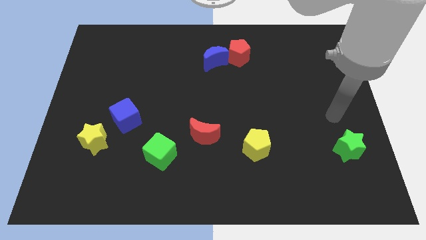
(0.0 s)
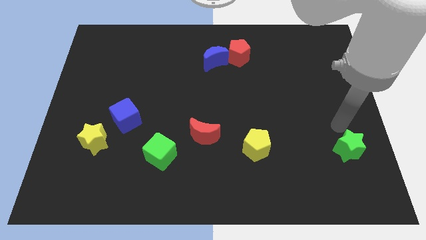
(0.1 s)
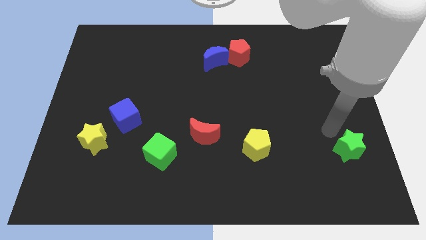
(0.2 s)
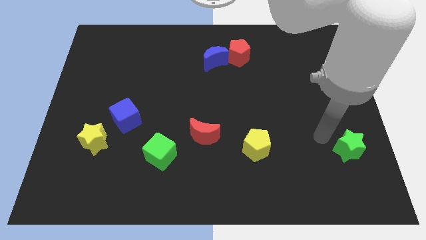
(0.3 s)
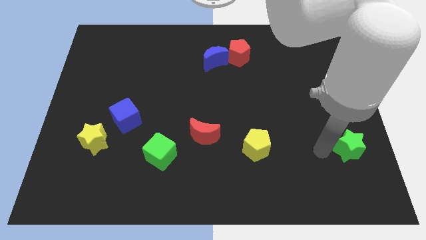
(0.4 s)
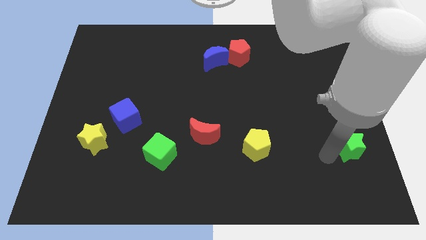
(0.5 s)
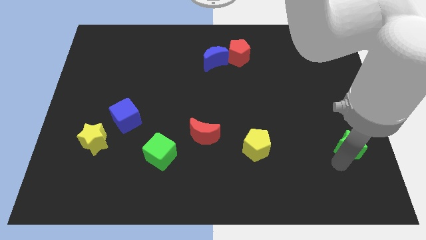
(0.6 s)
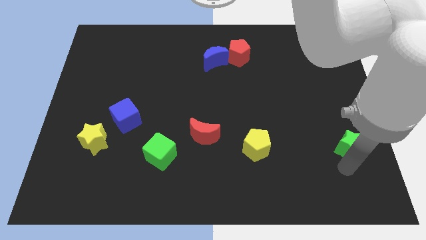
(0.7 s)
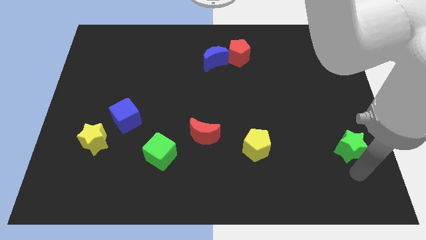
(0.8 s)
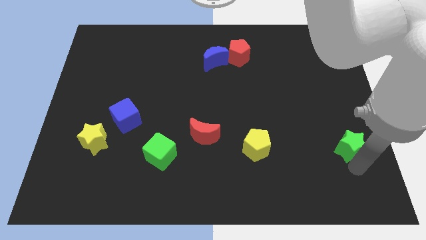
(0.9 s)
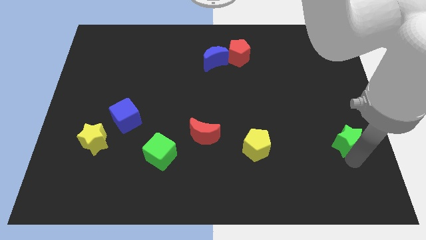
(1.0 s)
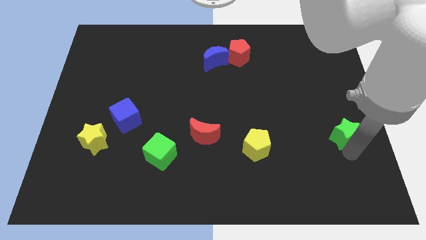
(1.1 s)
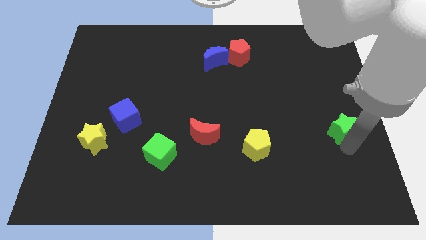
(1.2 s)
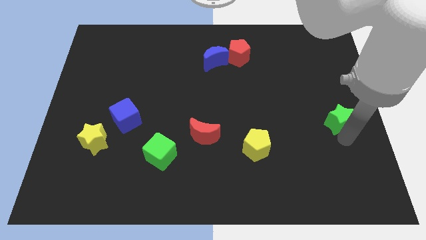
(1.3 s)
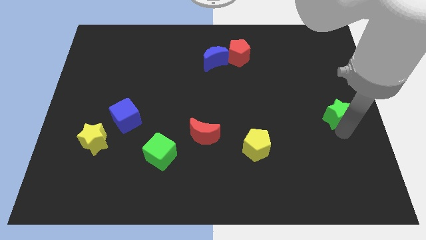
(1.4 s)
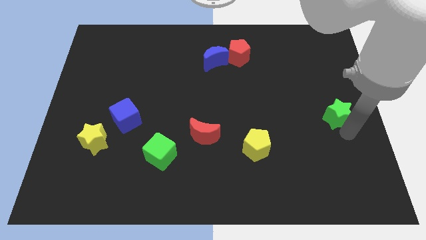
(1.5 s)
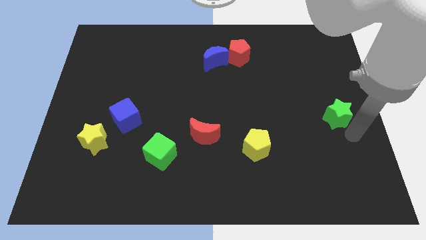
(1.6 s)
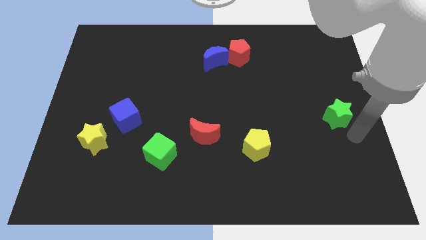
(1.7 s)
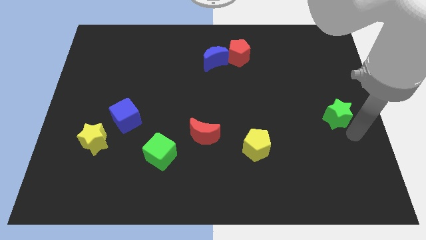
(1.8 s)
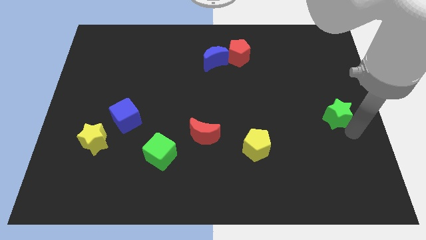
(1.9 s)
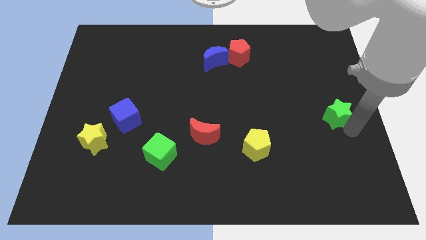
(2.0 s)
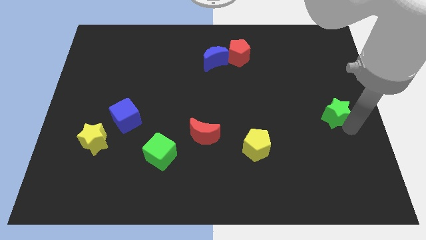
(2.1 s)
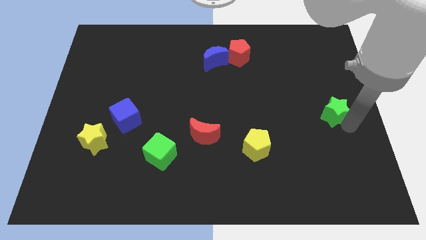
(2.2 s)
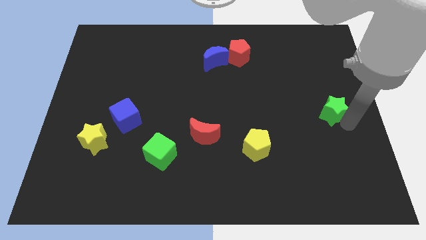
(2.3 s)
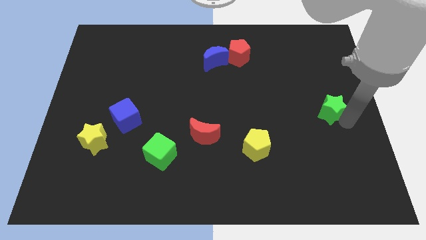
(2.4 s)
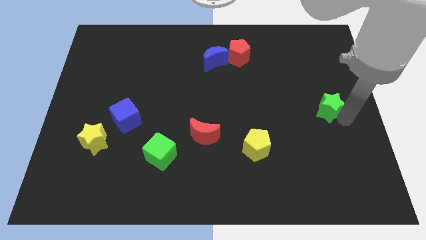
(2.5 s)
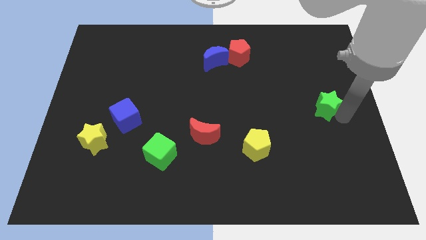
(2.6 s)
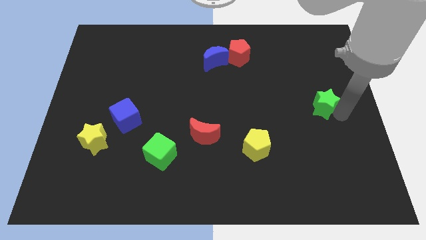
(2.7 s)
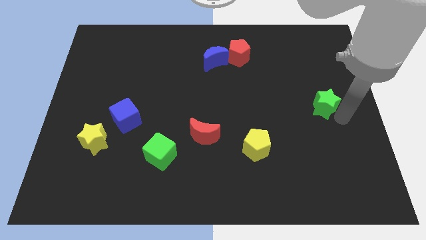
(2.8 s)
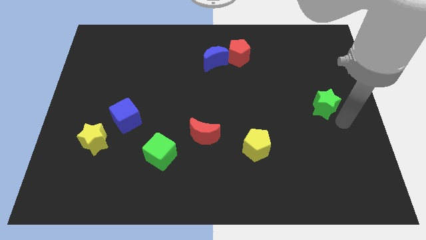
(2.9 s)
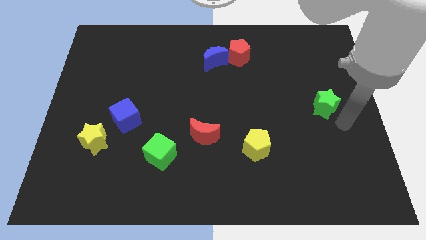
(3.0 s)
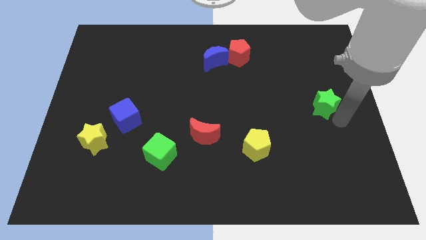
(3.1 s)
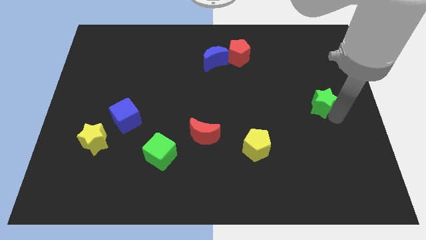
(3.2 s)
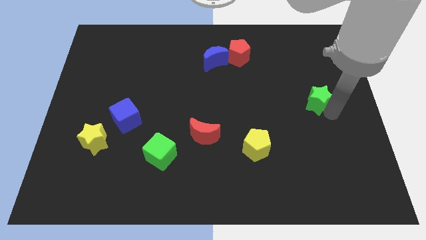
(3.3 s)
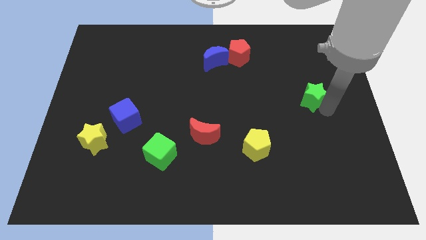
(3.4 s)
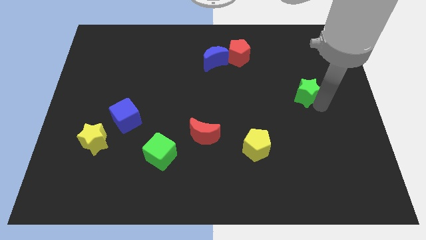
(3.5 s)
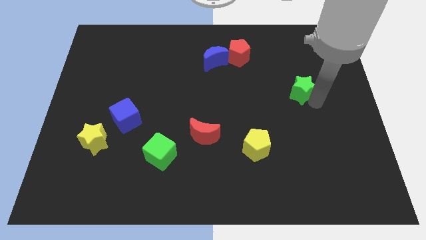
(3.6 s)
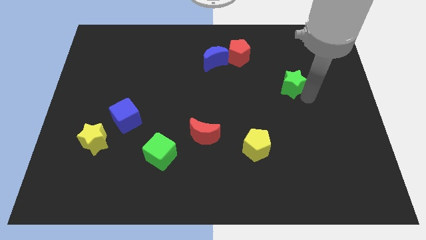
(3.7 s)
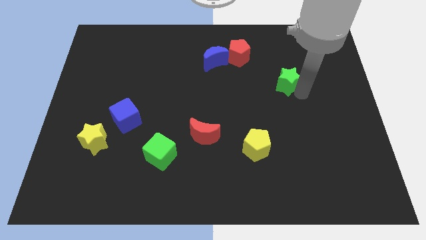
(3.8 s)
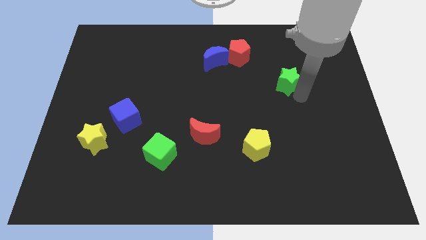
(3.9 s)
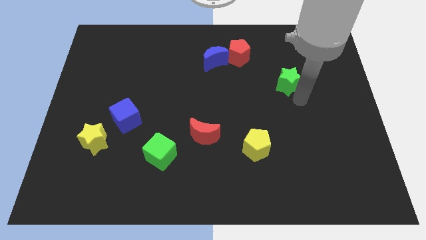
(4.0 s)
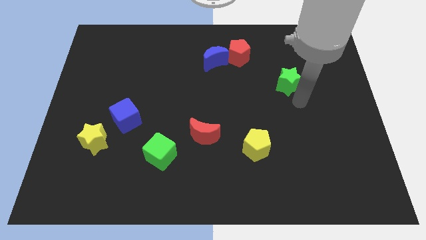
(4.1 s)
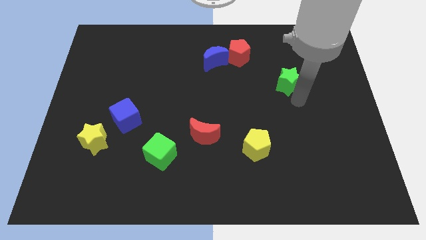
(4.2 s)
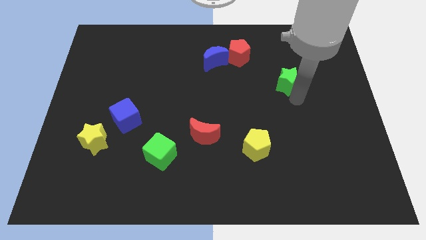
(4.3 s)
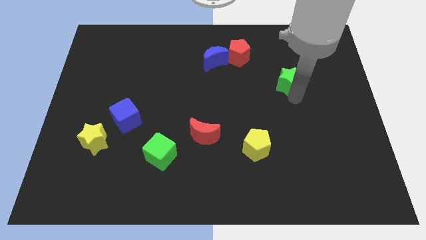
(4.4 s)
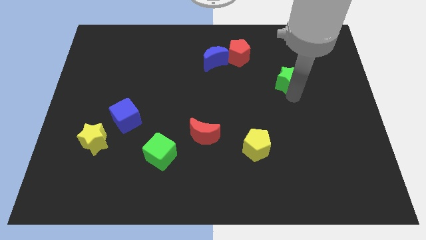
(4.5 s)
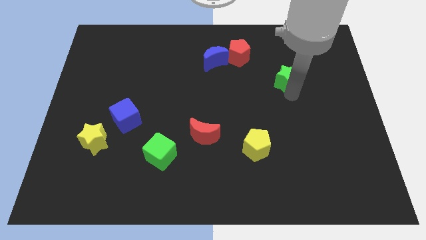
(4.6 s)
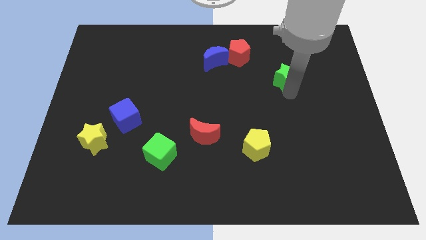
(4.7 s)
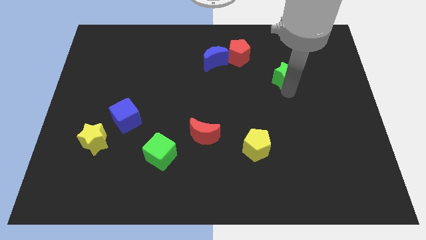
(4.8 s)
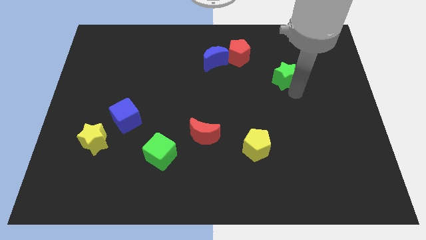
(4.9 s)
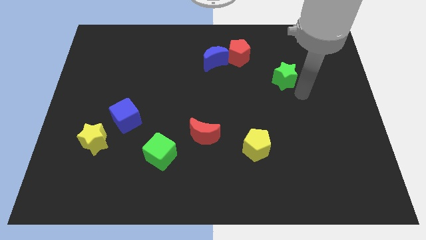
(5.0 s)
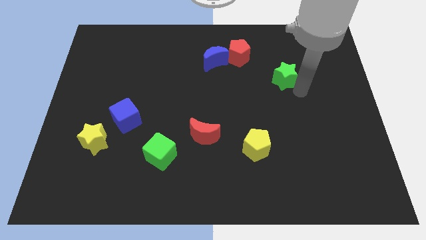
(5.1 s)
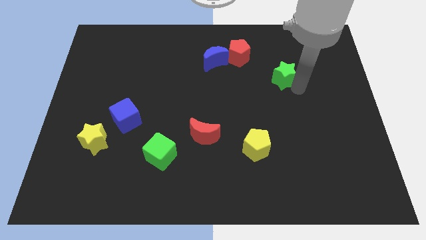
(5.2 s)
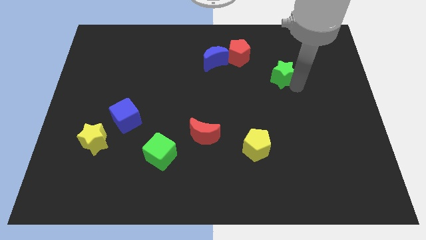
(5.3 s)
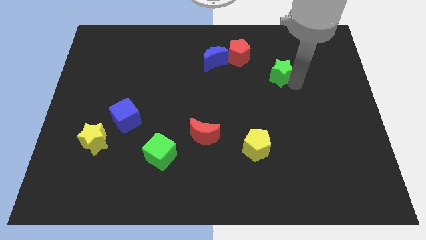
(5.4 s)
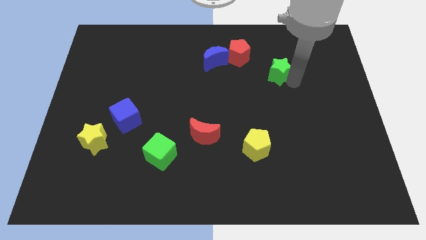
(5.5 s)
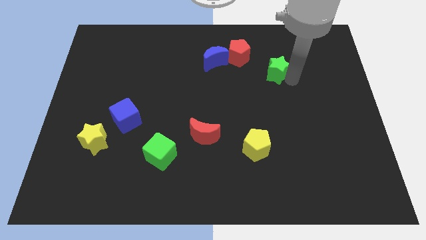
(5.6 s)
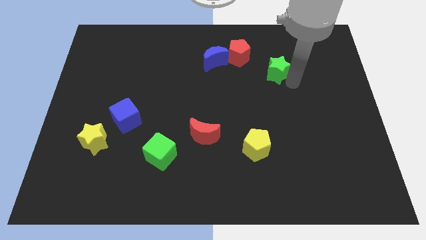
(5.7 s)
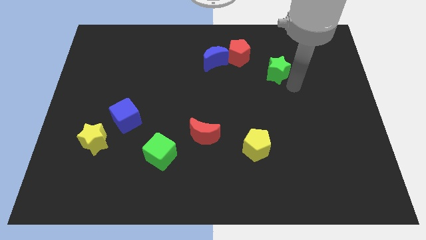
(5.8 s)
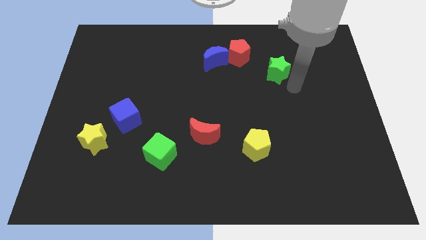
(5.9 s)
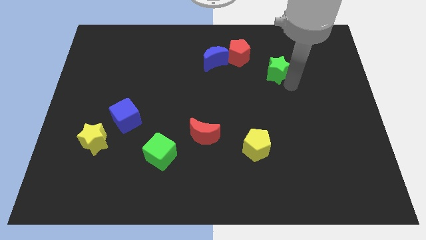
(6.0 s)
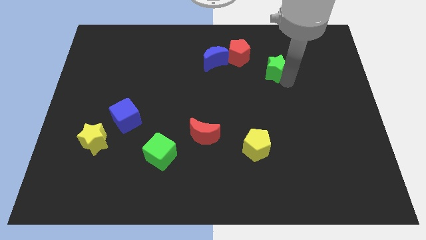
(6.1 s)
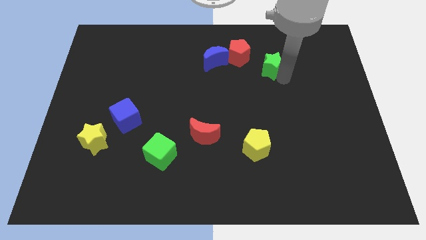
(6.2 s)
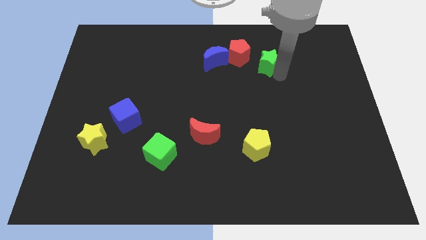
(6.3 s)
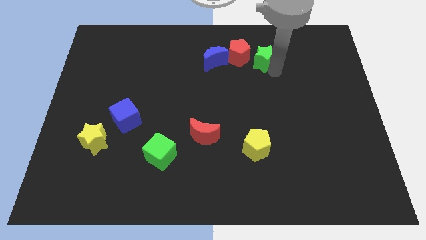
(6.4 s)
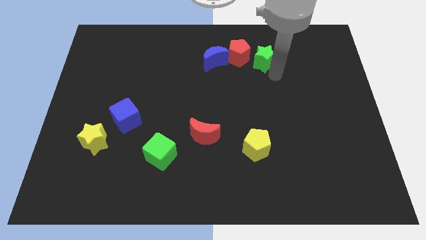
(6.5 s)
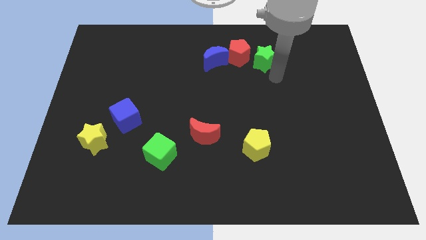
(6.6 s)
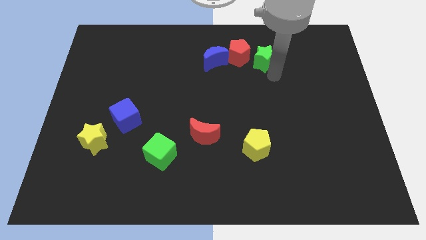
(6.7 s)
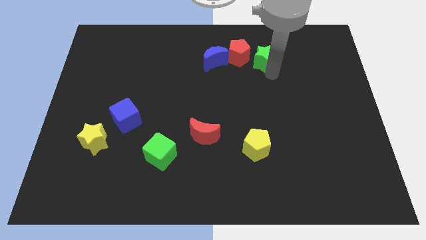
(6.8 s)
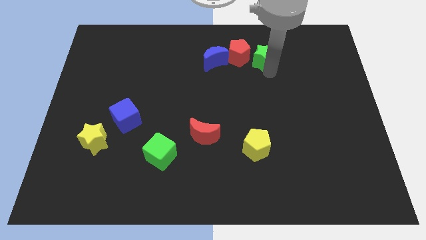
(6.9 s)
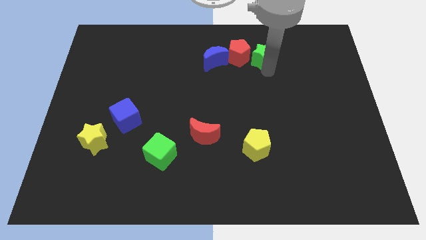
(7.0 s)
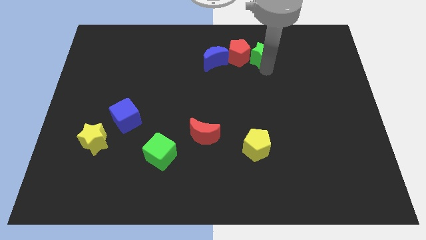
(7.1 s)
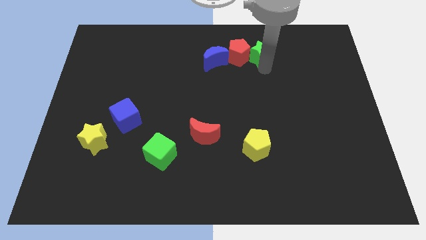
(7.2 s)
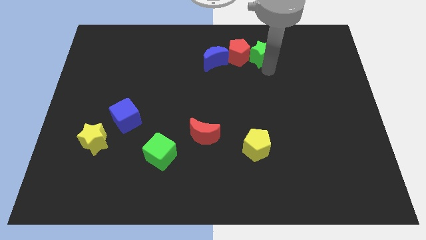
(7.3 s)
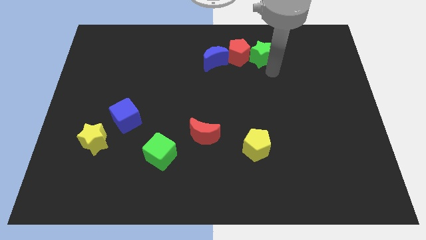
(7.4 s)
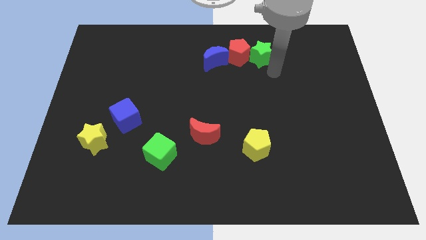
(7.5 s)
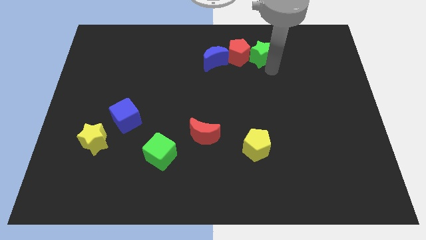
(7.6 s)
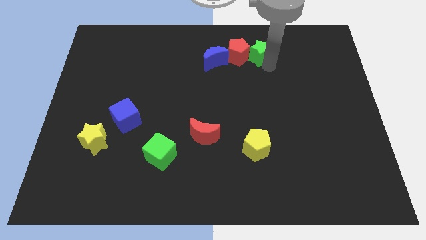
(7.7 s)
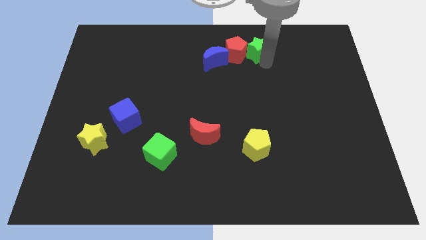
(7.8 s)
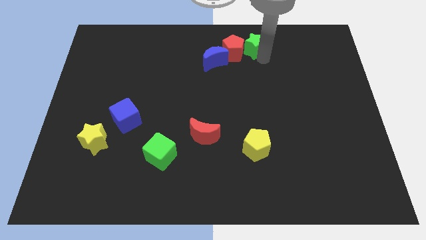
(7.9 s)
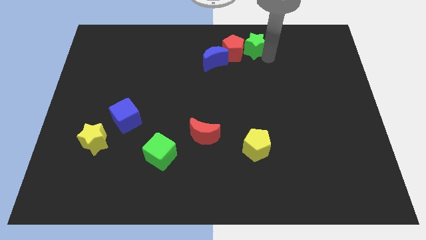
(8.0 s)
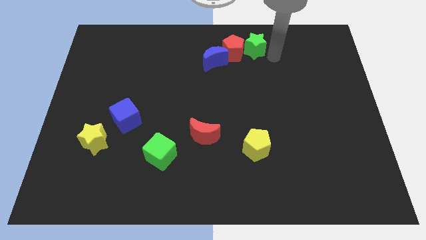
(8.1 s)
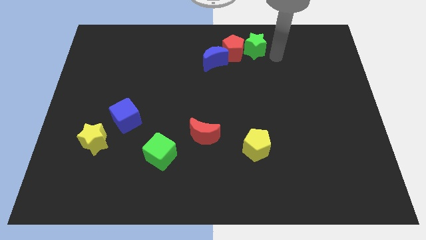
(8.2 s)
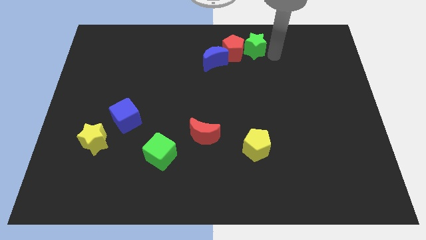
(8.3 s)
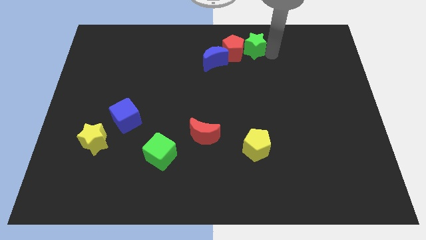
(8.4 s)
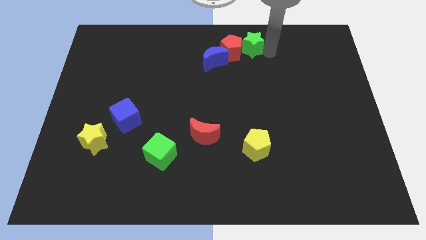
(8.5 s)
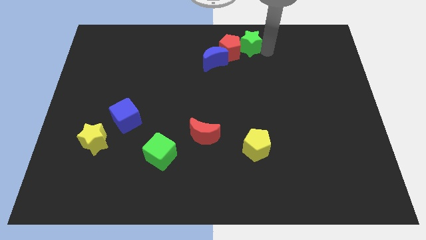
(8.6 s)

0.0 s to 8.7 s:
push the green star to the towards your base
